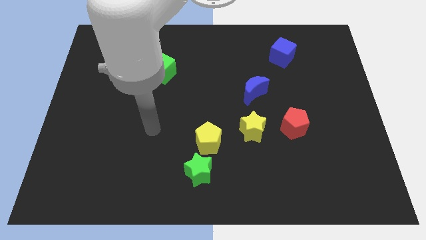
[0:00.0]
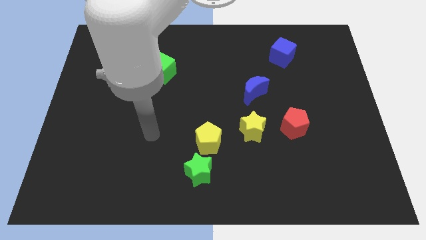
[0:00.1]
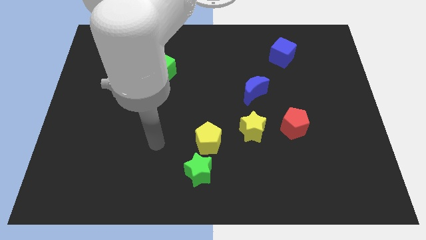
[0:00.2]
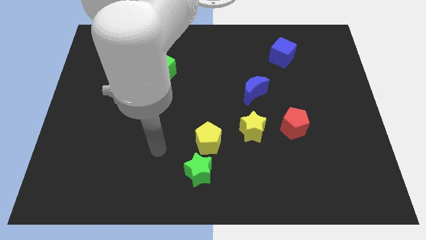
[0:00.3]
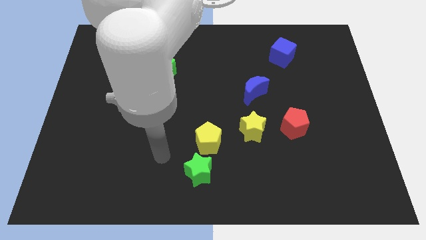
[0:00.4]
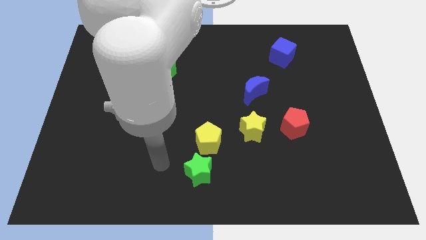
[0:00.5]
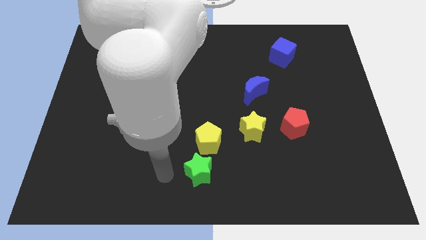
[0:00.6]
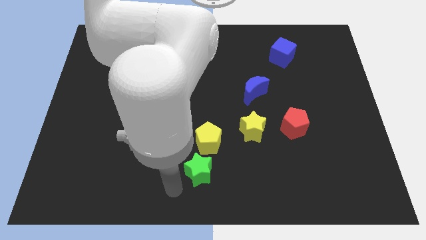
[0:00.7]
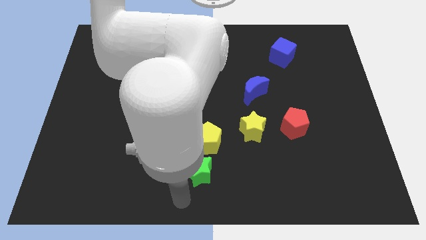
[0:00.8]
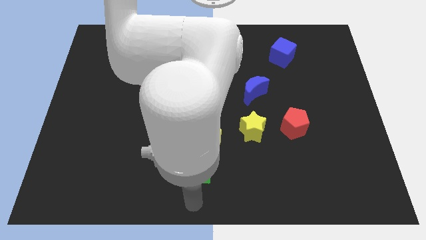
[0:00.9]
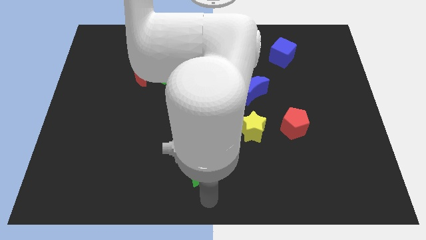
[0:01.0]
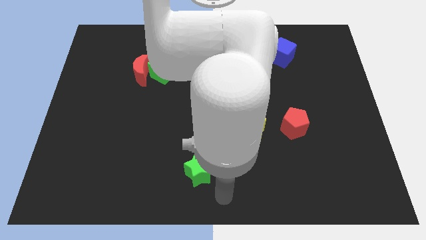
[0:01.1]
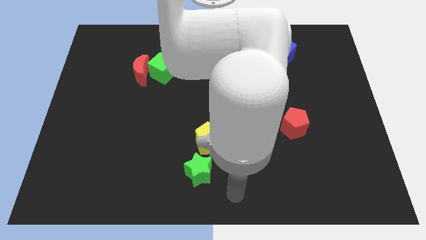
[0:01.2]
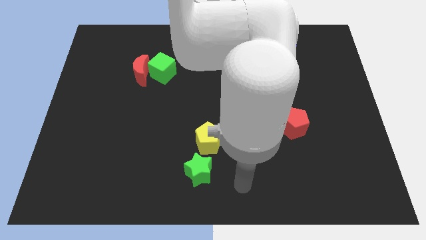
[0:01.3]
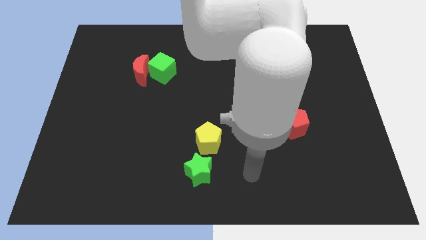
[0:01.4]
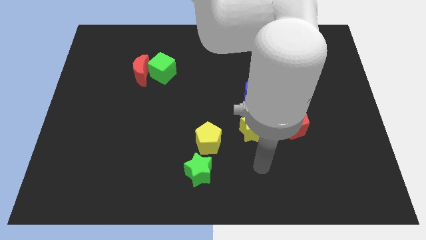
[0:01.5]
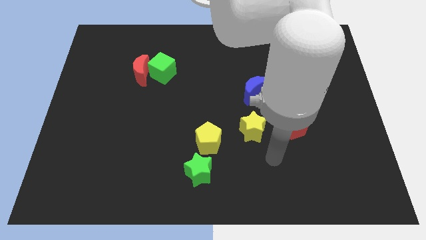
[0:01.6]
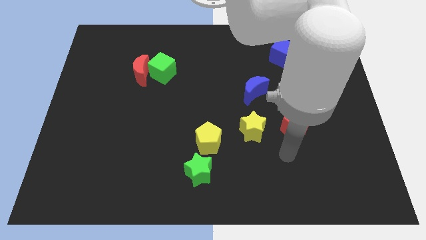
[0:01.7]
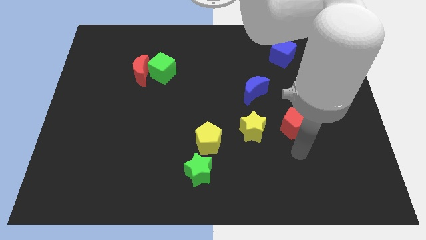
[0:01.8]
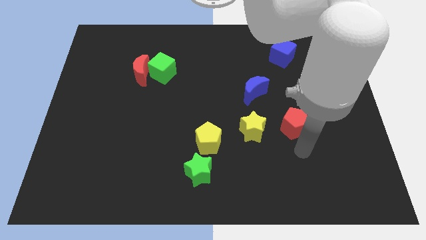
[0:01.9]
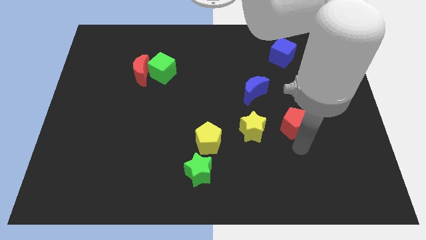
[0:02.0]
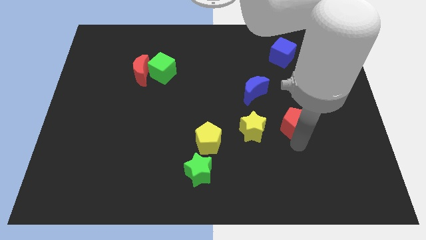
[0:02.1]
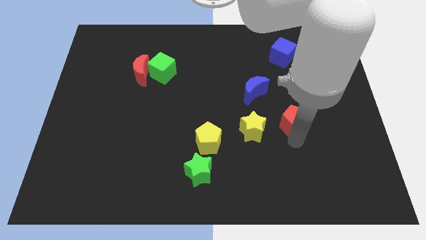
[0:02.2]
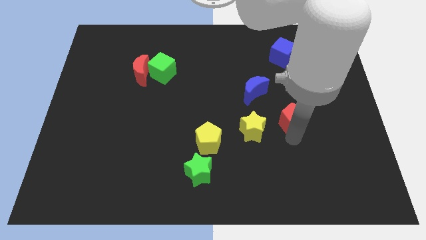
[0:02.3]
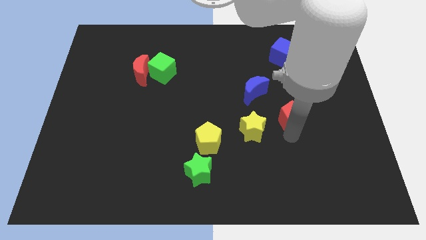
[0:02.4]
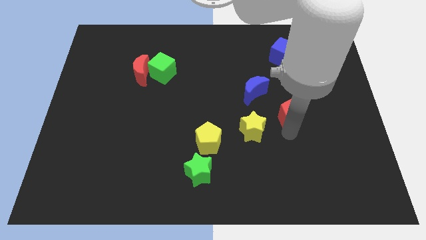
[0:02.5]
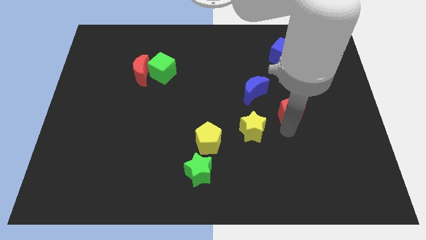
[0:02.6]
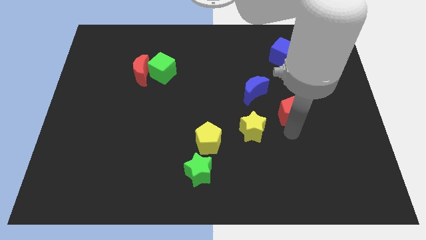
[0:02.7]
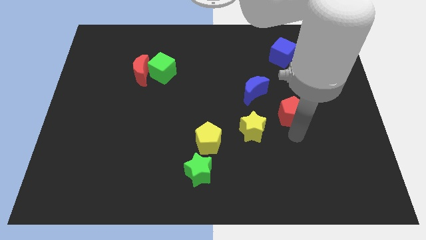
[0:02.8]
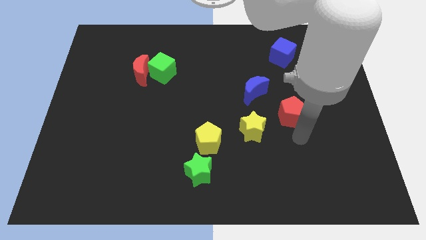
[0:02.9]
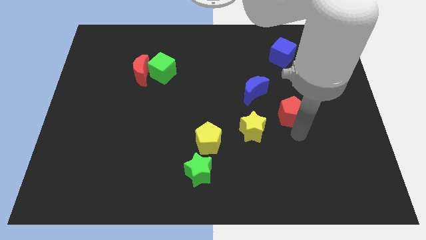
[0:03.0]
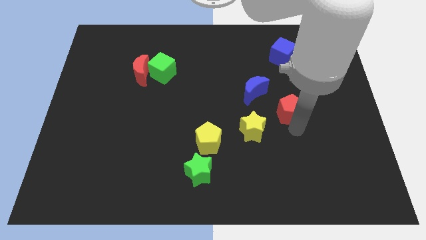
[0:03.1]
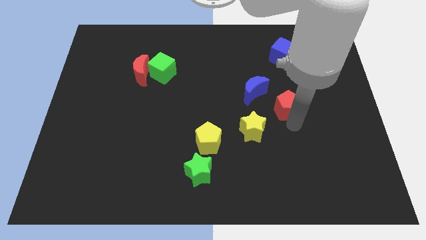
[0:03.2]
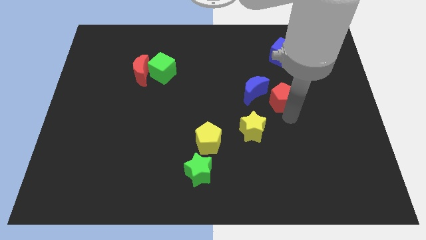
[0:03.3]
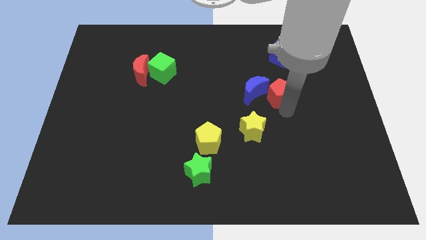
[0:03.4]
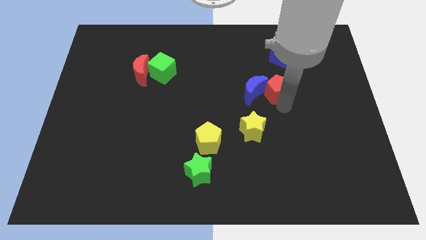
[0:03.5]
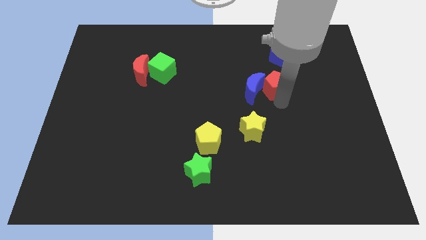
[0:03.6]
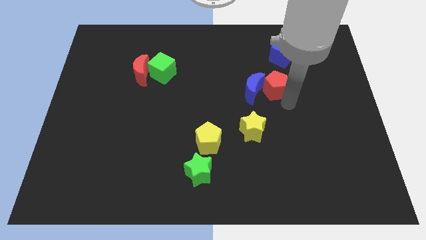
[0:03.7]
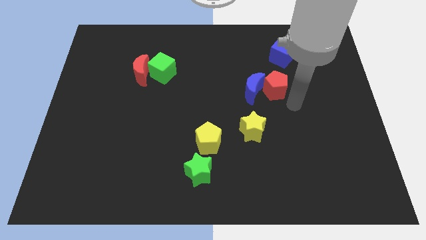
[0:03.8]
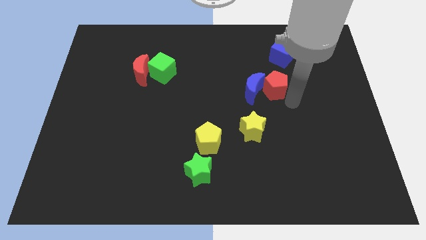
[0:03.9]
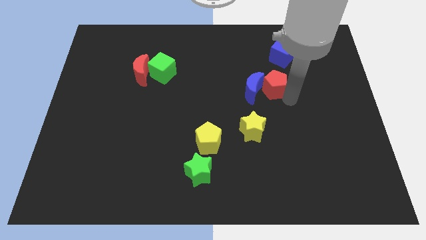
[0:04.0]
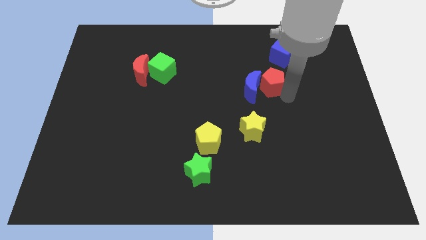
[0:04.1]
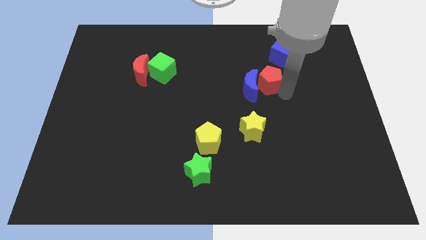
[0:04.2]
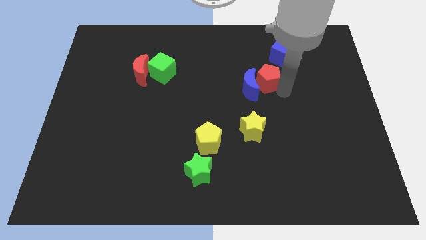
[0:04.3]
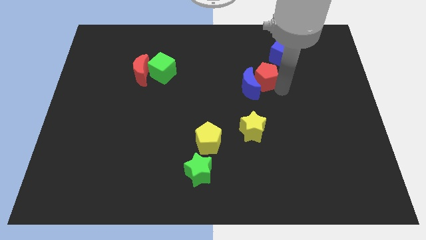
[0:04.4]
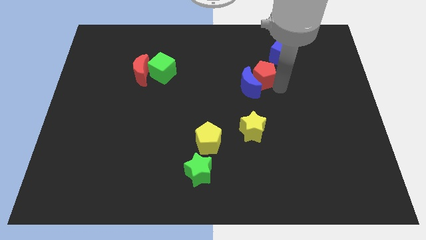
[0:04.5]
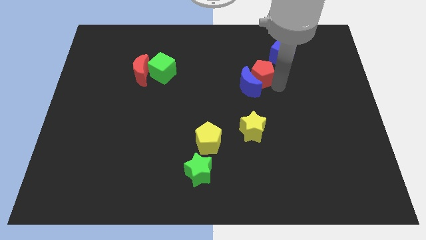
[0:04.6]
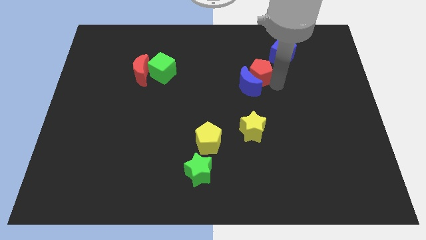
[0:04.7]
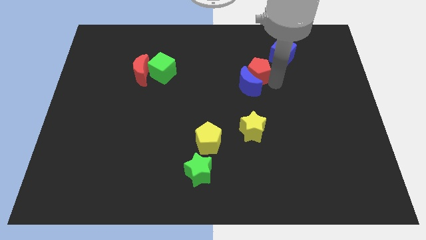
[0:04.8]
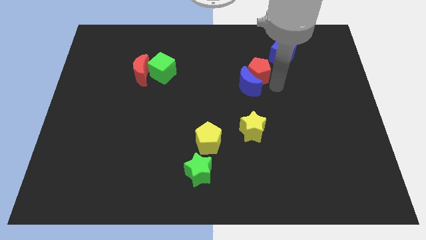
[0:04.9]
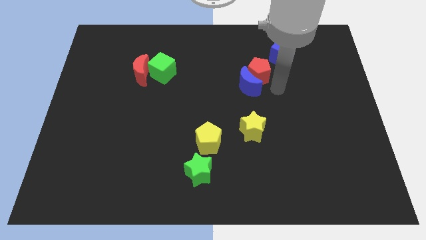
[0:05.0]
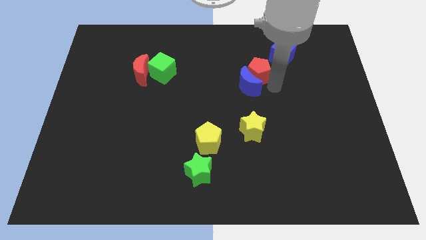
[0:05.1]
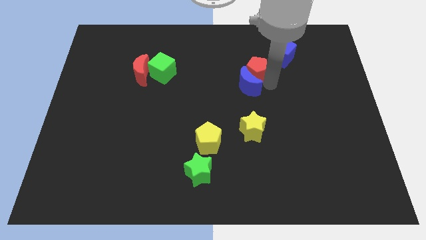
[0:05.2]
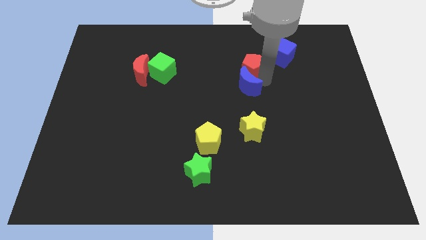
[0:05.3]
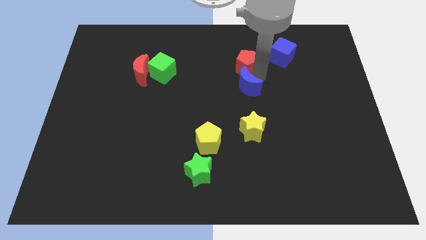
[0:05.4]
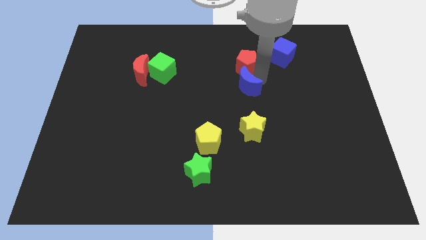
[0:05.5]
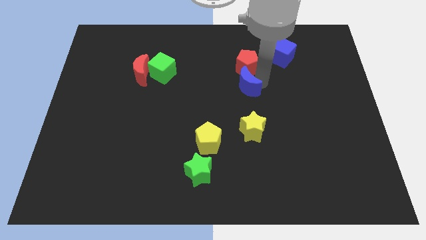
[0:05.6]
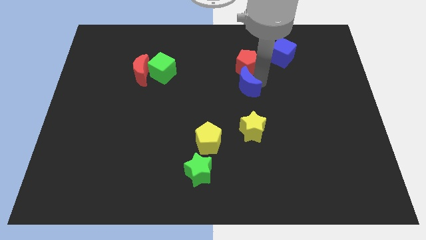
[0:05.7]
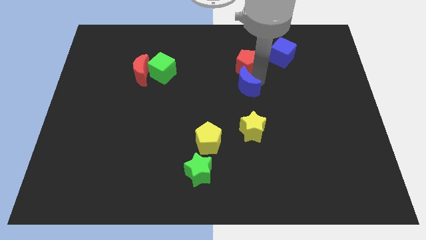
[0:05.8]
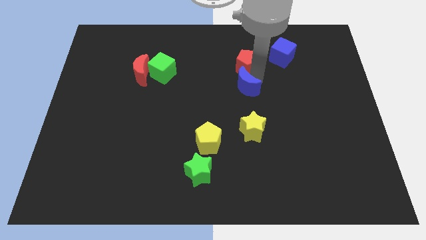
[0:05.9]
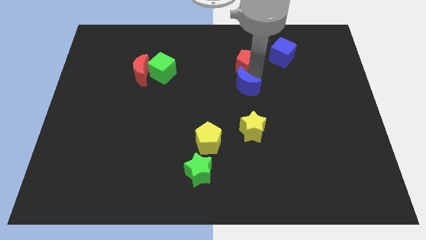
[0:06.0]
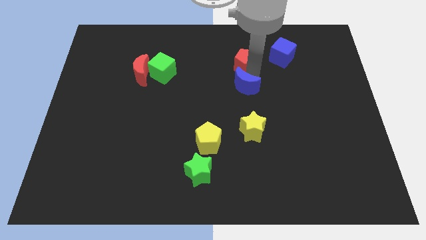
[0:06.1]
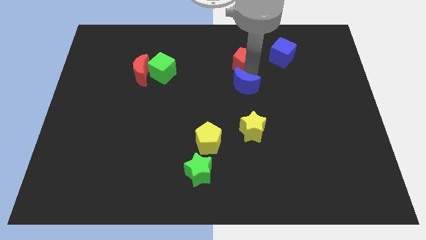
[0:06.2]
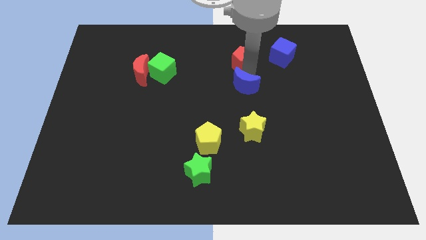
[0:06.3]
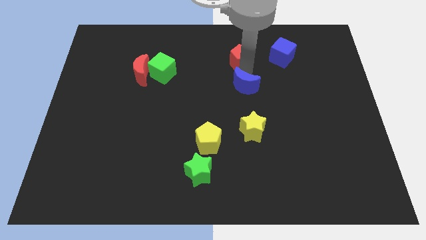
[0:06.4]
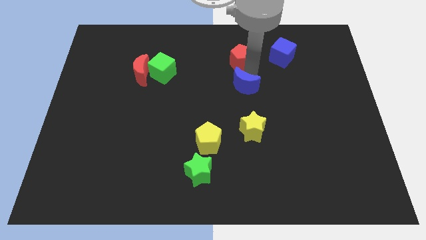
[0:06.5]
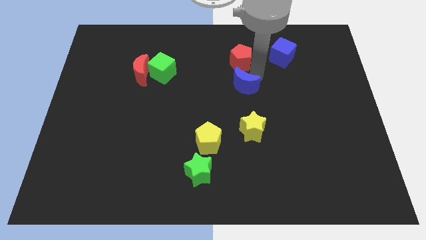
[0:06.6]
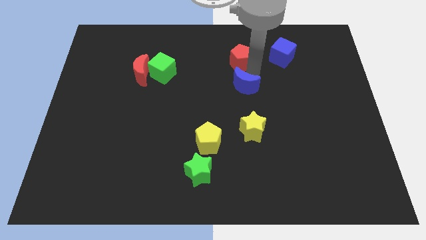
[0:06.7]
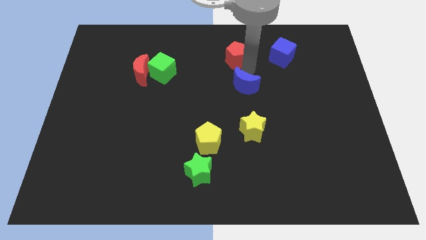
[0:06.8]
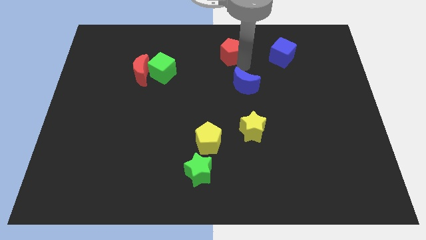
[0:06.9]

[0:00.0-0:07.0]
move the red pentagon to the top side
